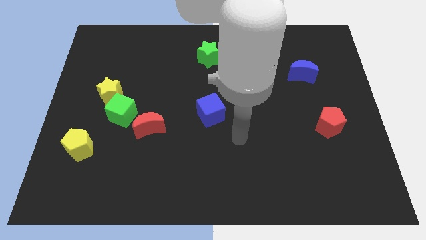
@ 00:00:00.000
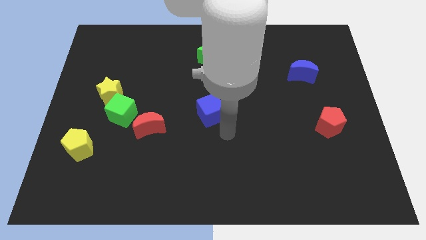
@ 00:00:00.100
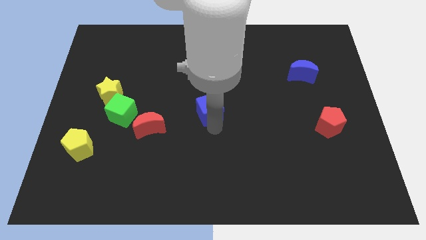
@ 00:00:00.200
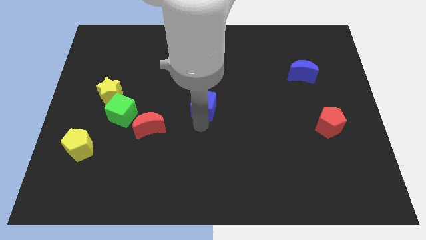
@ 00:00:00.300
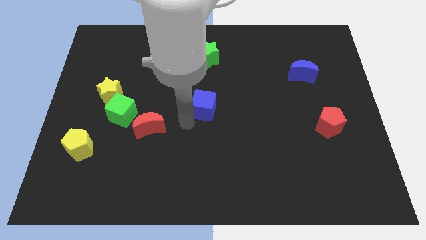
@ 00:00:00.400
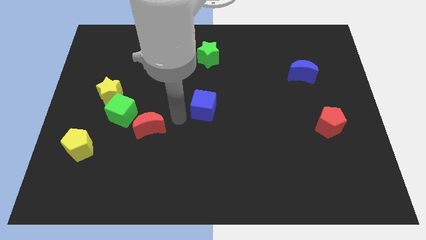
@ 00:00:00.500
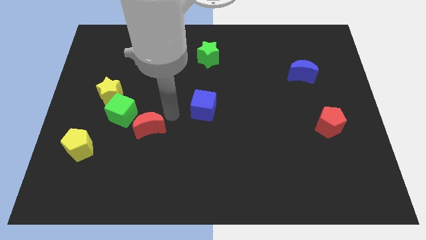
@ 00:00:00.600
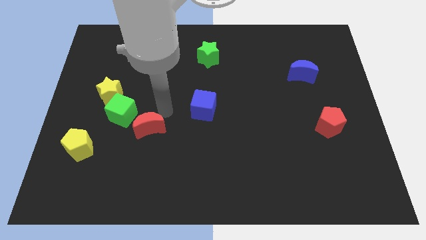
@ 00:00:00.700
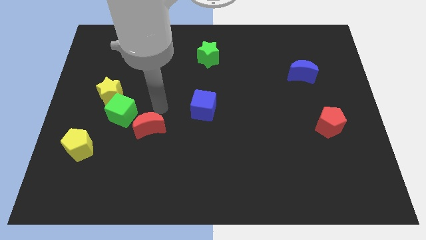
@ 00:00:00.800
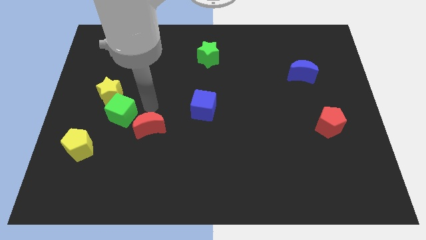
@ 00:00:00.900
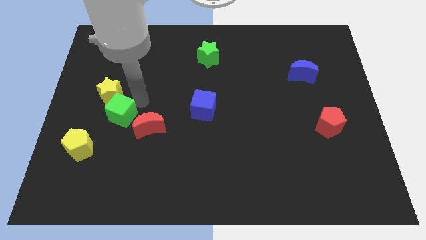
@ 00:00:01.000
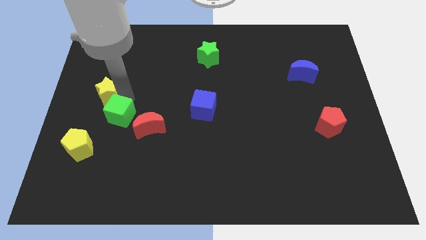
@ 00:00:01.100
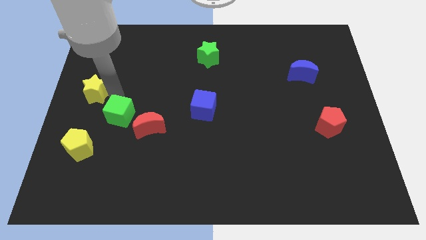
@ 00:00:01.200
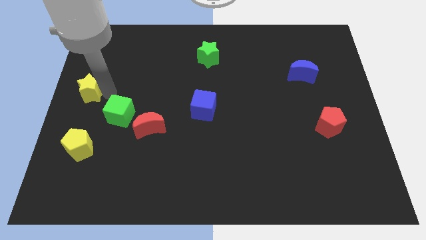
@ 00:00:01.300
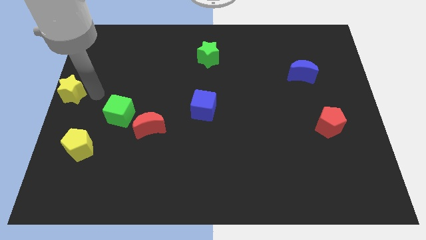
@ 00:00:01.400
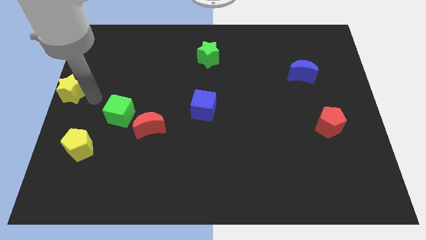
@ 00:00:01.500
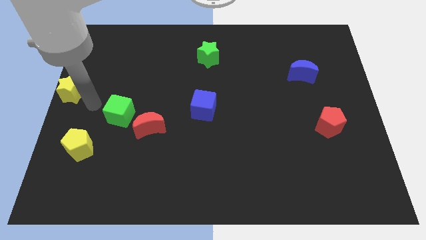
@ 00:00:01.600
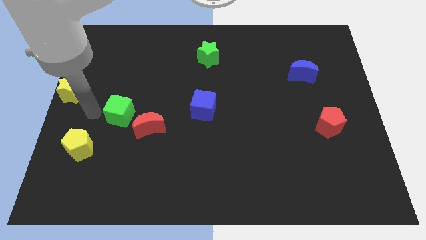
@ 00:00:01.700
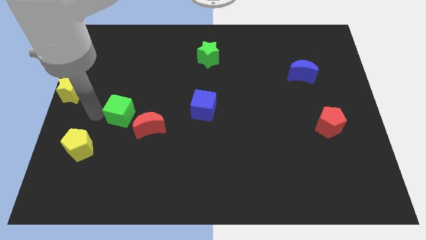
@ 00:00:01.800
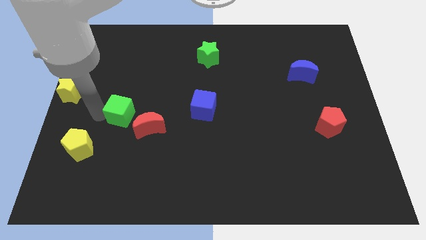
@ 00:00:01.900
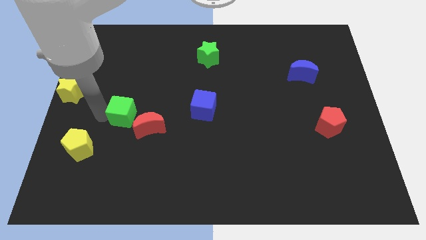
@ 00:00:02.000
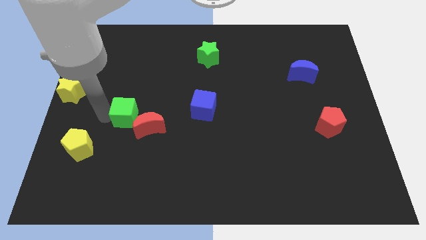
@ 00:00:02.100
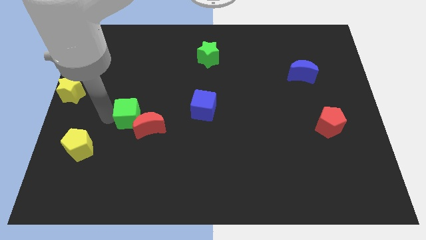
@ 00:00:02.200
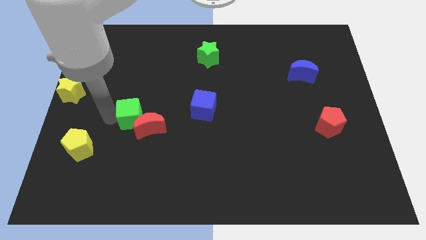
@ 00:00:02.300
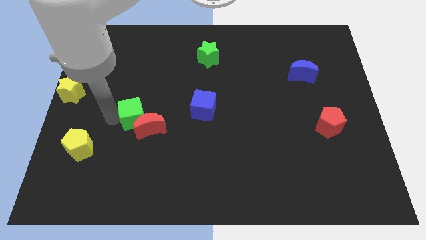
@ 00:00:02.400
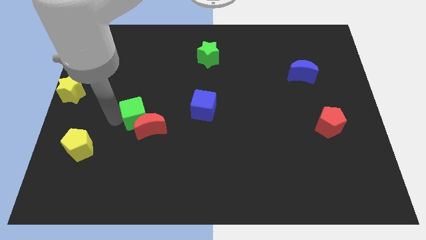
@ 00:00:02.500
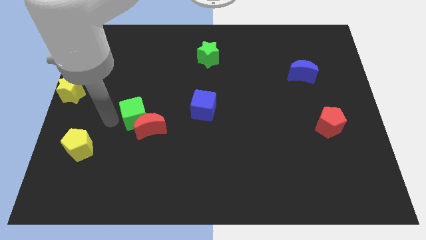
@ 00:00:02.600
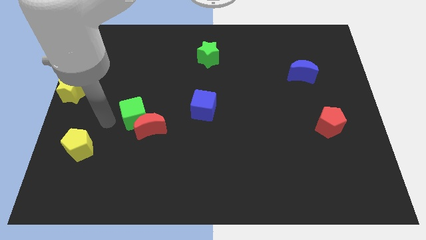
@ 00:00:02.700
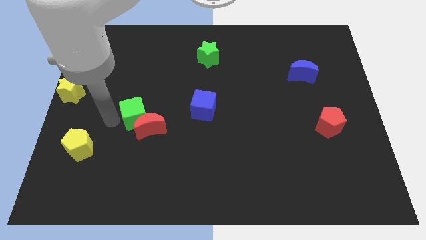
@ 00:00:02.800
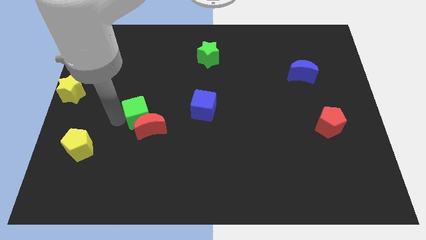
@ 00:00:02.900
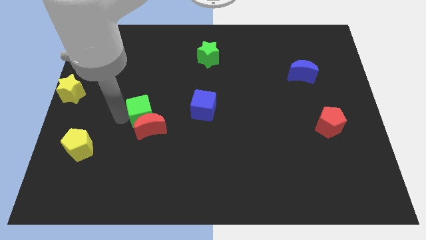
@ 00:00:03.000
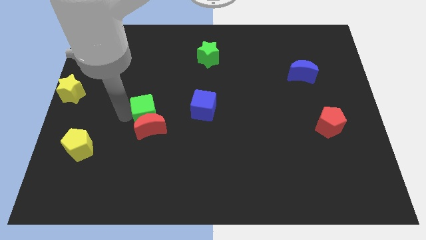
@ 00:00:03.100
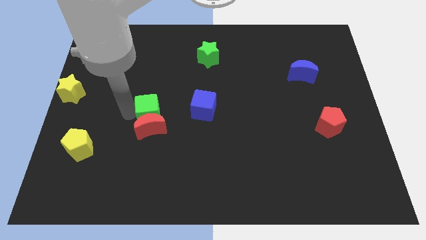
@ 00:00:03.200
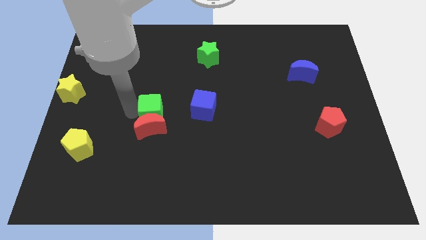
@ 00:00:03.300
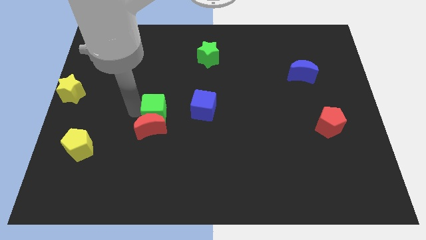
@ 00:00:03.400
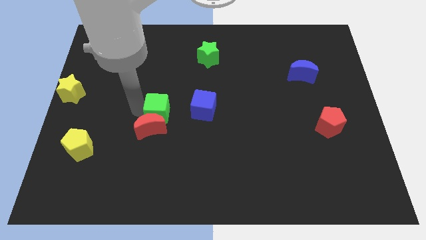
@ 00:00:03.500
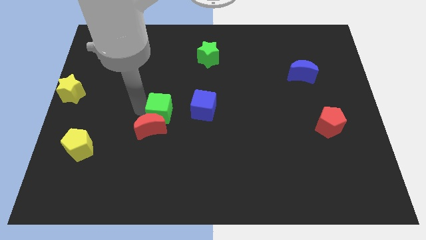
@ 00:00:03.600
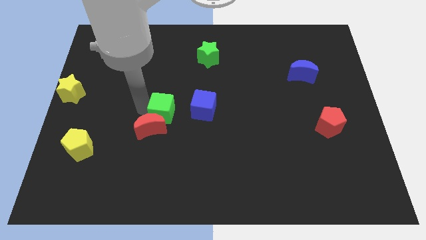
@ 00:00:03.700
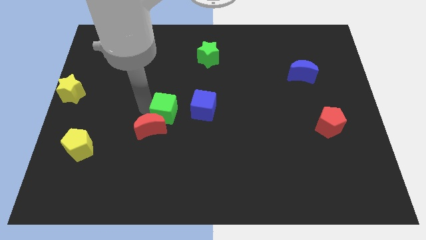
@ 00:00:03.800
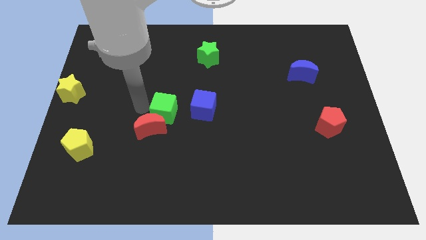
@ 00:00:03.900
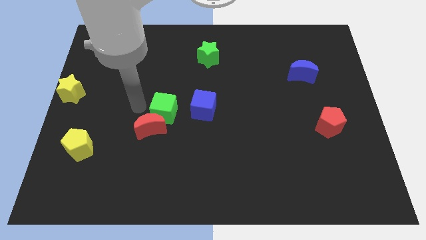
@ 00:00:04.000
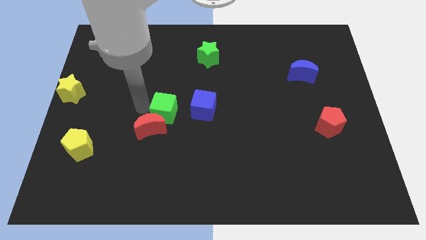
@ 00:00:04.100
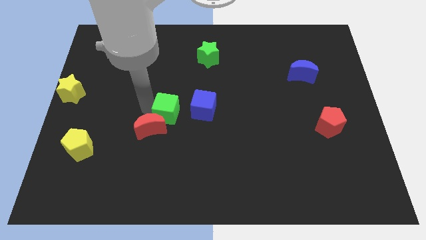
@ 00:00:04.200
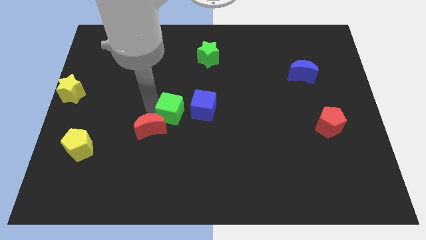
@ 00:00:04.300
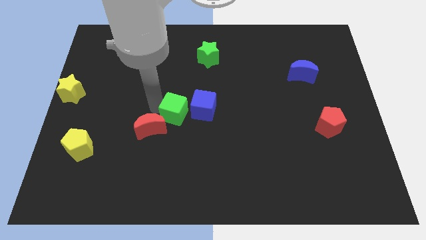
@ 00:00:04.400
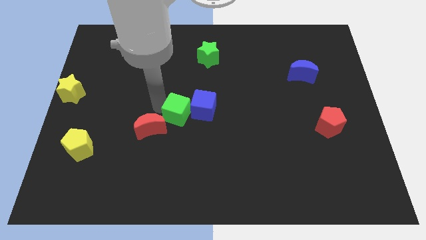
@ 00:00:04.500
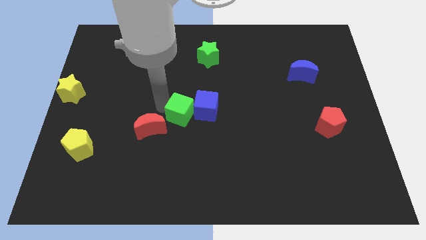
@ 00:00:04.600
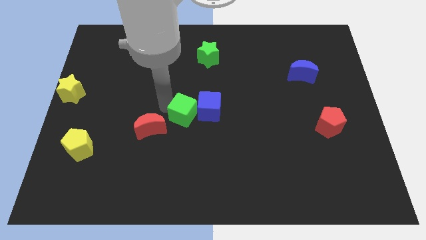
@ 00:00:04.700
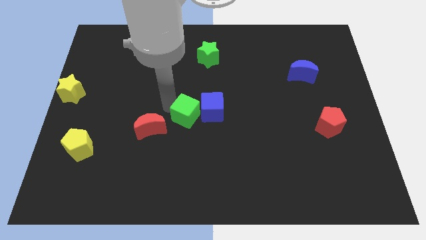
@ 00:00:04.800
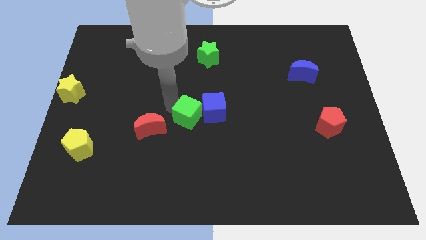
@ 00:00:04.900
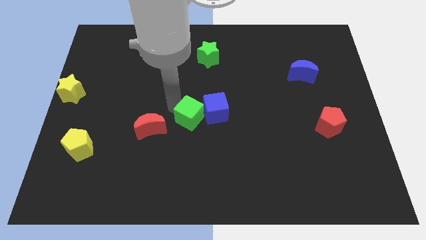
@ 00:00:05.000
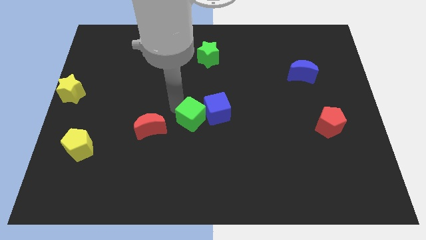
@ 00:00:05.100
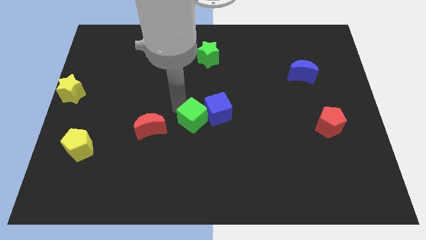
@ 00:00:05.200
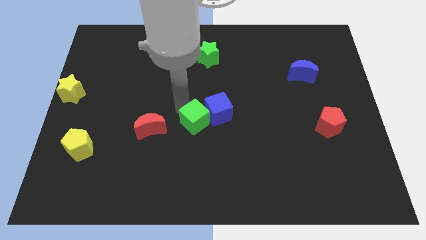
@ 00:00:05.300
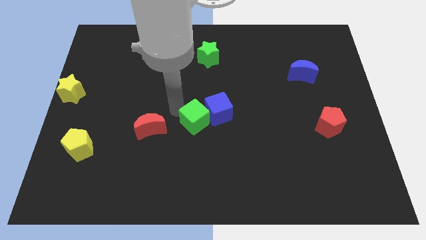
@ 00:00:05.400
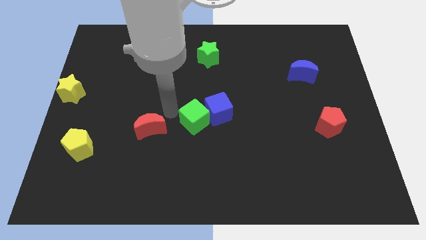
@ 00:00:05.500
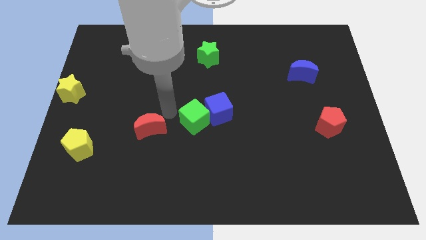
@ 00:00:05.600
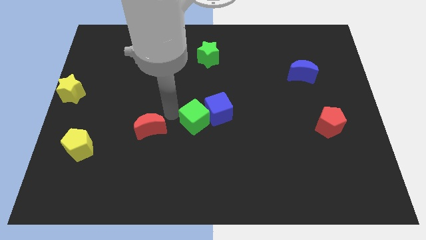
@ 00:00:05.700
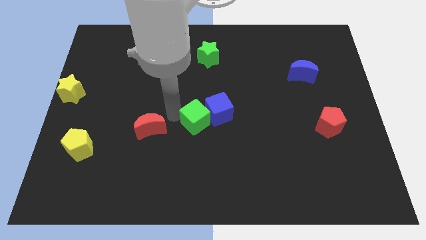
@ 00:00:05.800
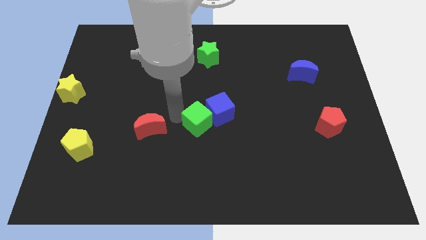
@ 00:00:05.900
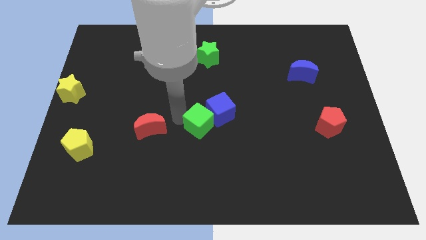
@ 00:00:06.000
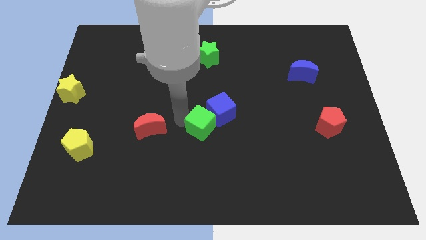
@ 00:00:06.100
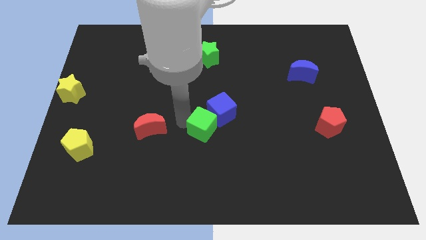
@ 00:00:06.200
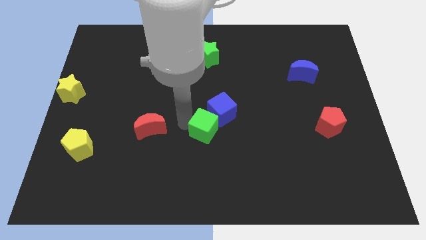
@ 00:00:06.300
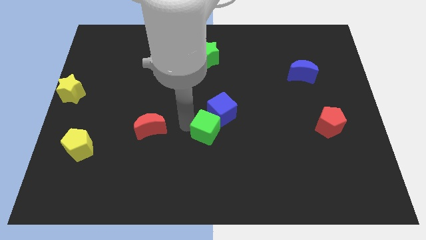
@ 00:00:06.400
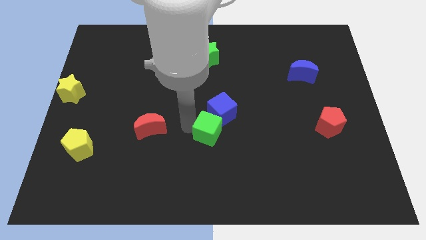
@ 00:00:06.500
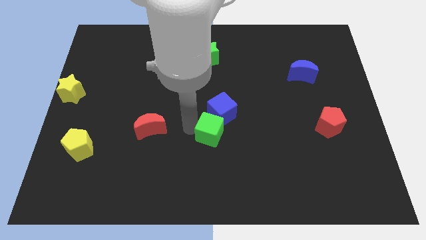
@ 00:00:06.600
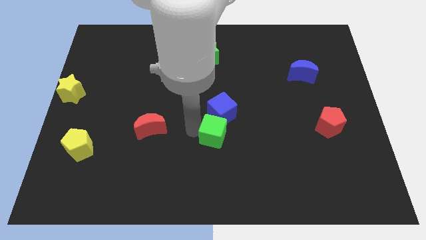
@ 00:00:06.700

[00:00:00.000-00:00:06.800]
slide the green cube right

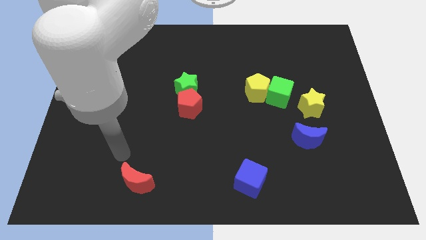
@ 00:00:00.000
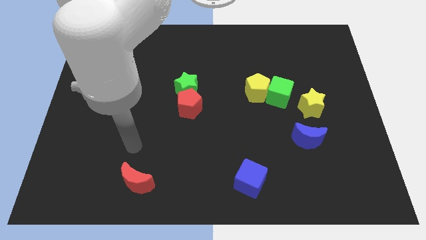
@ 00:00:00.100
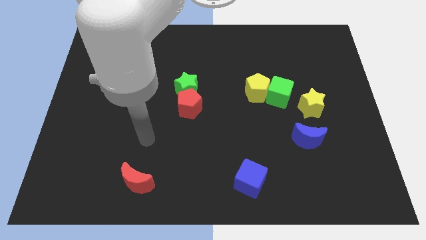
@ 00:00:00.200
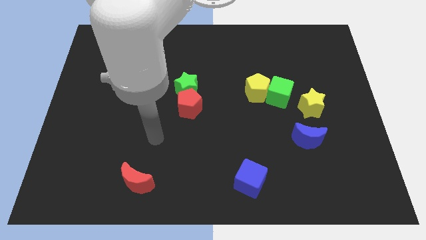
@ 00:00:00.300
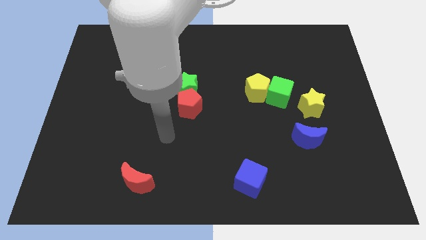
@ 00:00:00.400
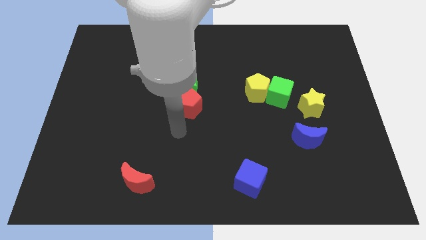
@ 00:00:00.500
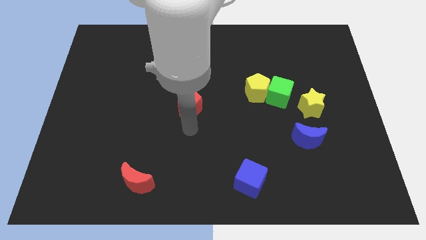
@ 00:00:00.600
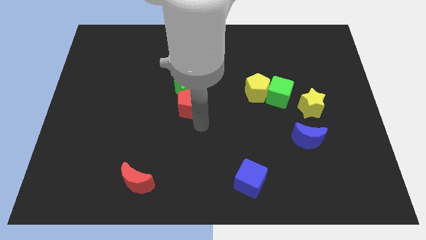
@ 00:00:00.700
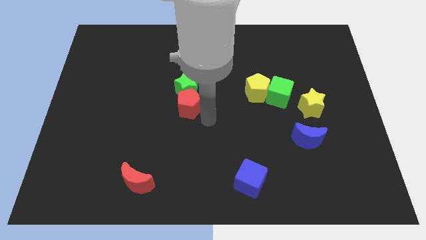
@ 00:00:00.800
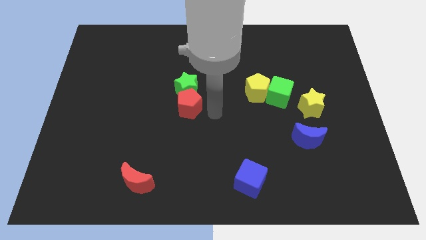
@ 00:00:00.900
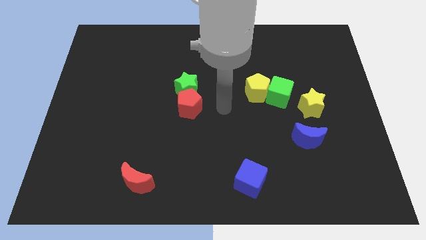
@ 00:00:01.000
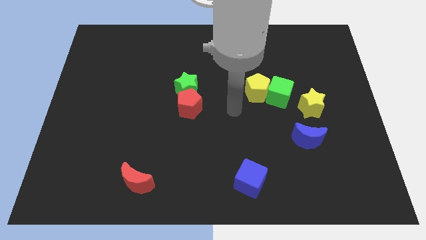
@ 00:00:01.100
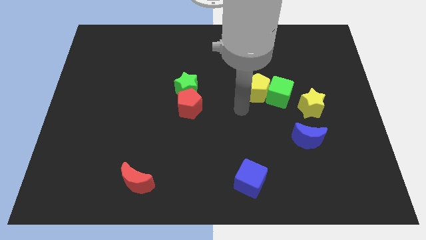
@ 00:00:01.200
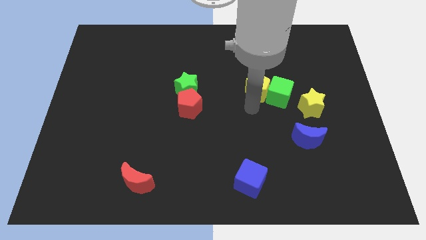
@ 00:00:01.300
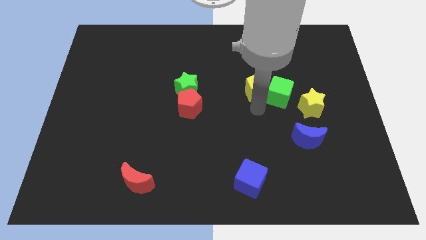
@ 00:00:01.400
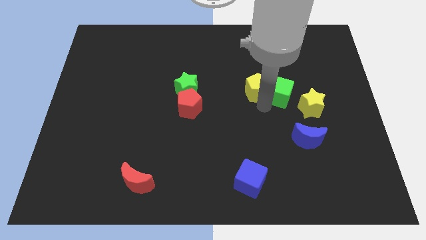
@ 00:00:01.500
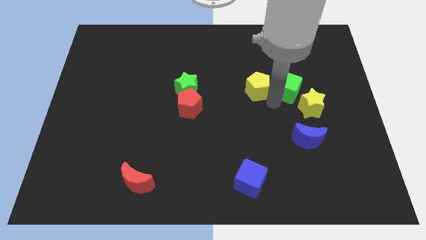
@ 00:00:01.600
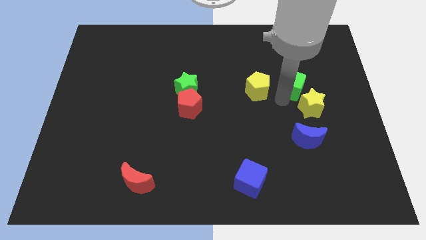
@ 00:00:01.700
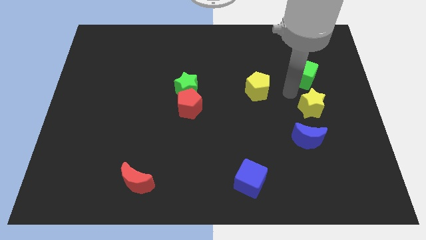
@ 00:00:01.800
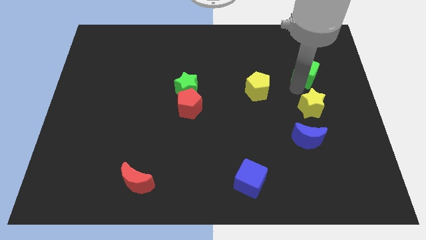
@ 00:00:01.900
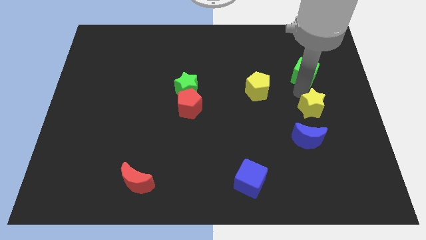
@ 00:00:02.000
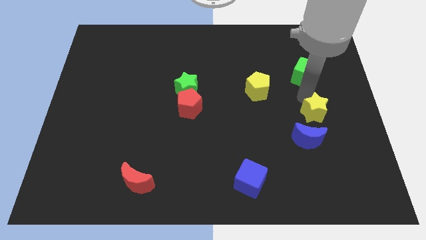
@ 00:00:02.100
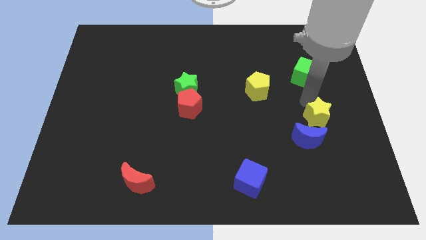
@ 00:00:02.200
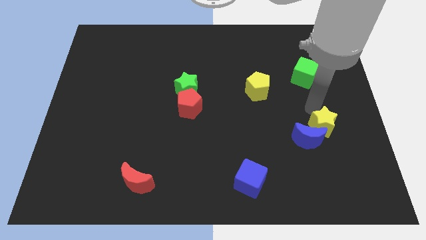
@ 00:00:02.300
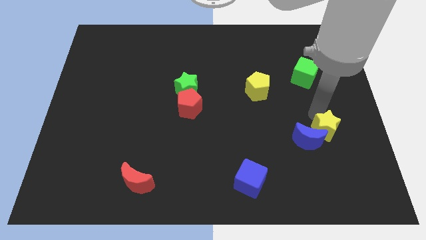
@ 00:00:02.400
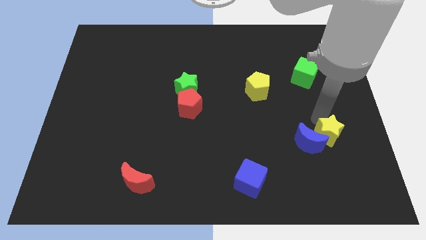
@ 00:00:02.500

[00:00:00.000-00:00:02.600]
slightly move the yellow star downwards
